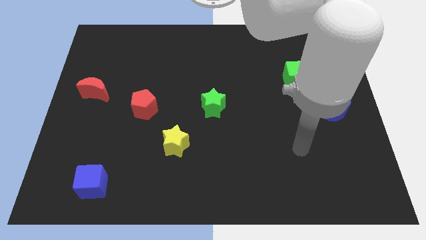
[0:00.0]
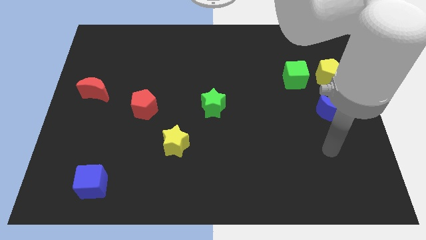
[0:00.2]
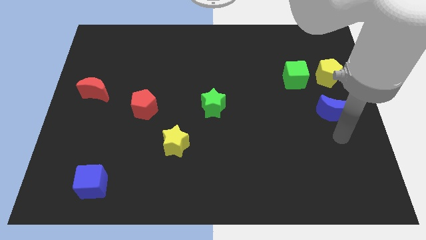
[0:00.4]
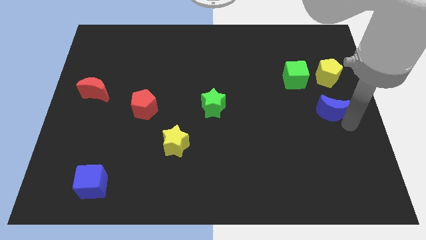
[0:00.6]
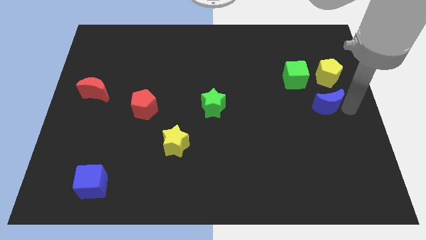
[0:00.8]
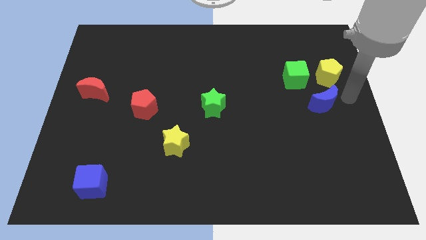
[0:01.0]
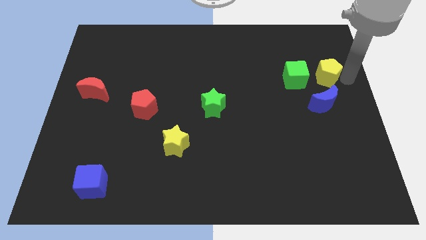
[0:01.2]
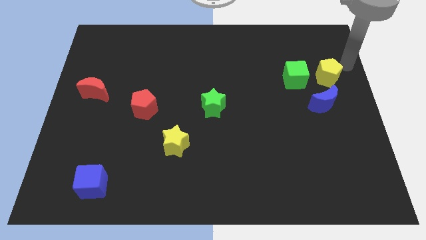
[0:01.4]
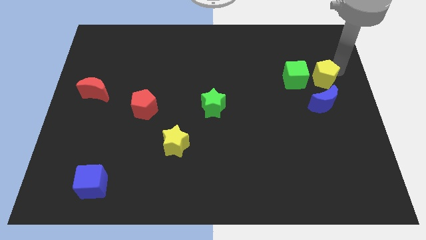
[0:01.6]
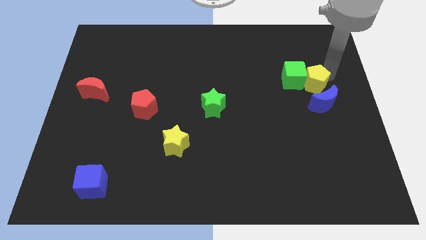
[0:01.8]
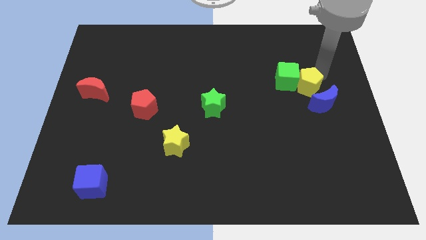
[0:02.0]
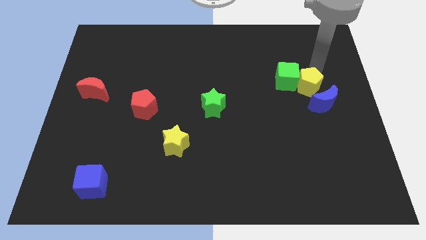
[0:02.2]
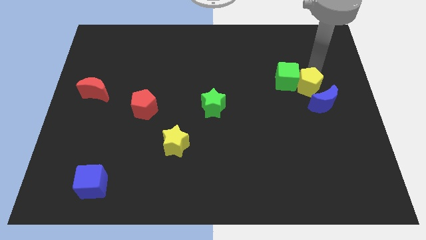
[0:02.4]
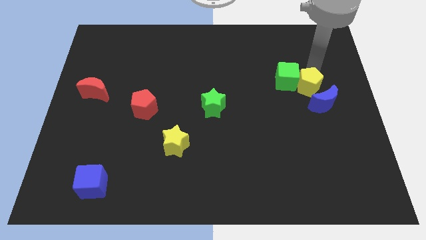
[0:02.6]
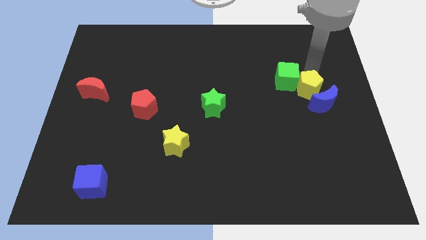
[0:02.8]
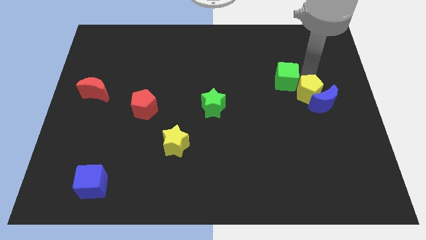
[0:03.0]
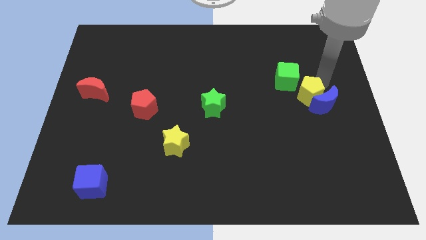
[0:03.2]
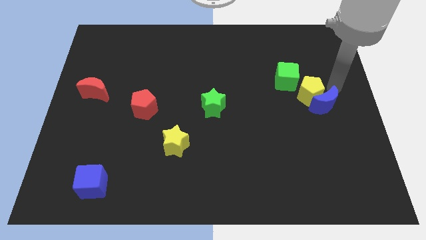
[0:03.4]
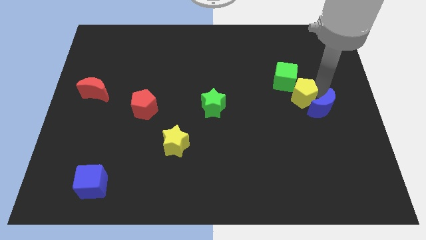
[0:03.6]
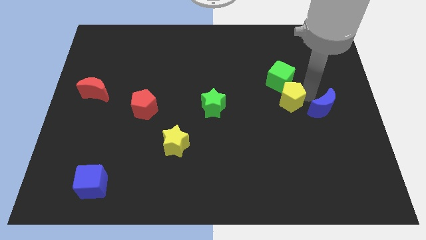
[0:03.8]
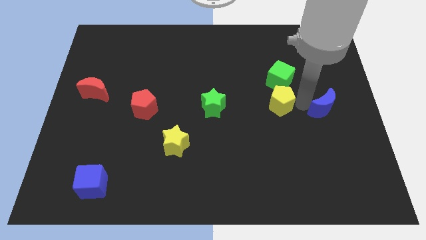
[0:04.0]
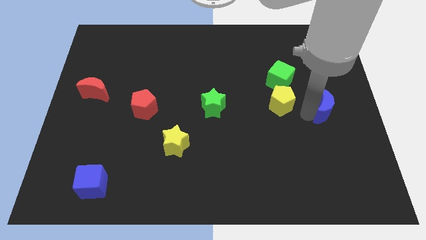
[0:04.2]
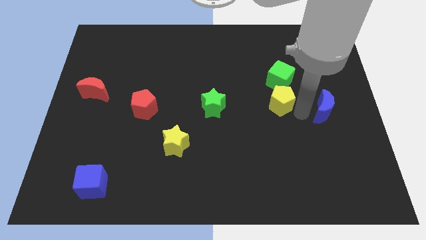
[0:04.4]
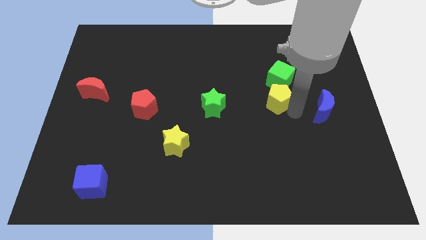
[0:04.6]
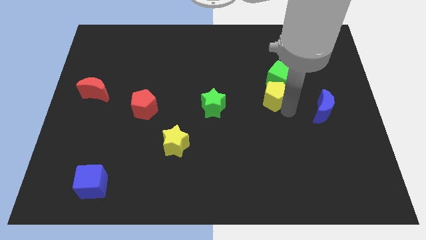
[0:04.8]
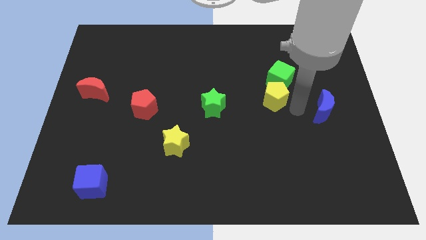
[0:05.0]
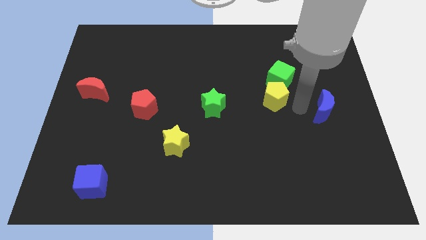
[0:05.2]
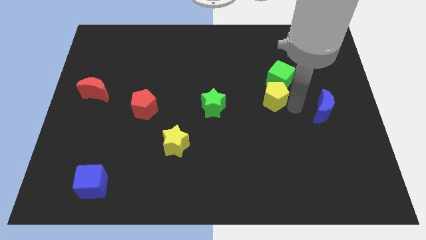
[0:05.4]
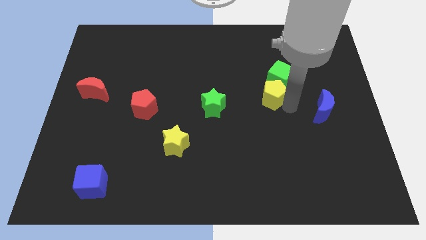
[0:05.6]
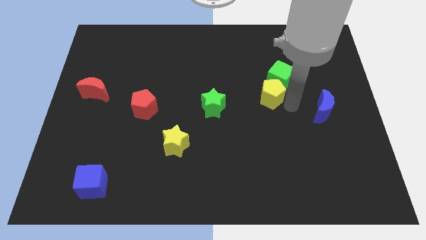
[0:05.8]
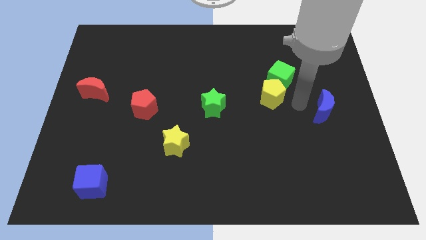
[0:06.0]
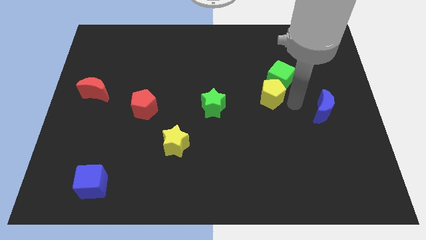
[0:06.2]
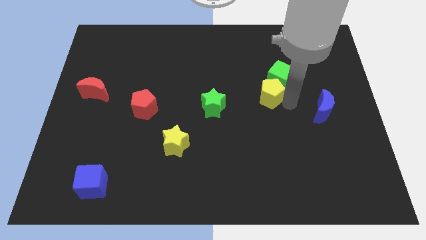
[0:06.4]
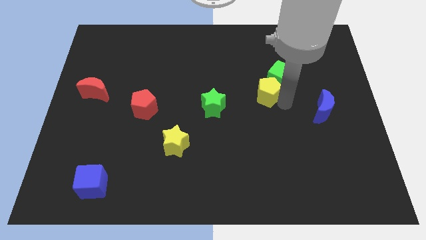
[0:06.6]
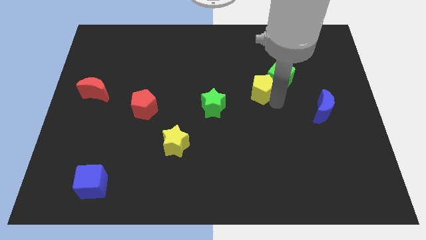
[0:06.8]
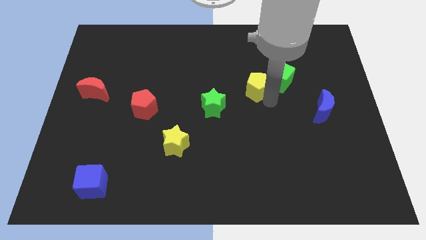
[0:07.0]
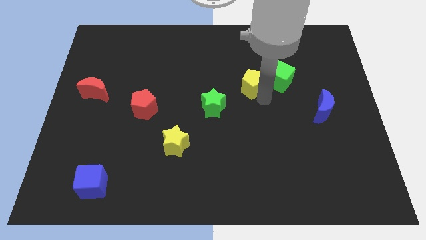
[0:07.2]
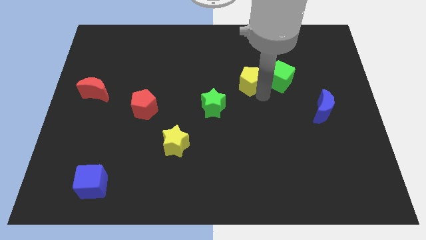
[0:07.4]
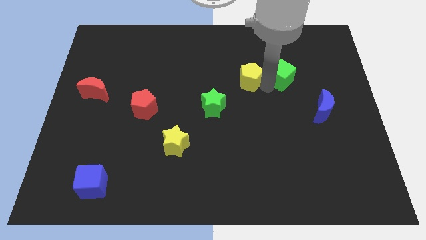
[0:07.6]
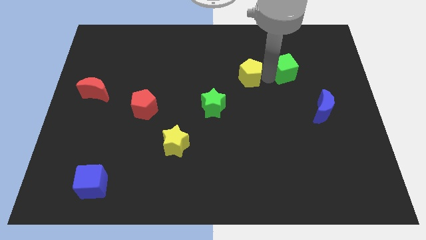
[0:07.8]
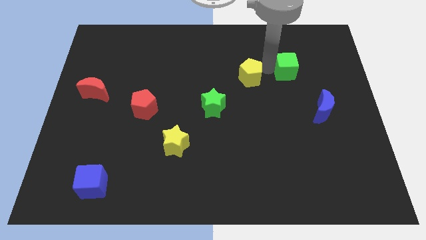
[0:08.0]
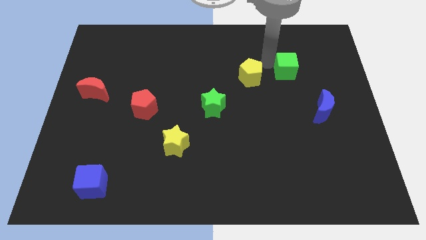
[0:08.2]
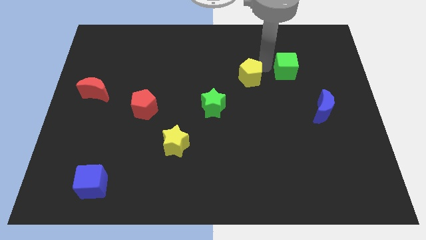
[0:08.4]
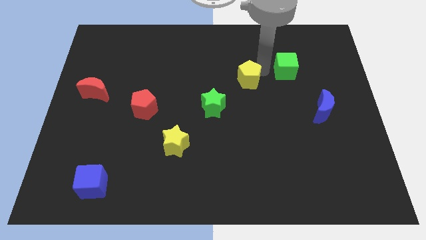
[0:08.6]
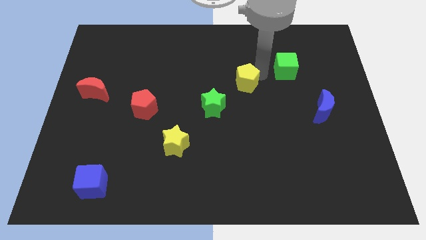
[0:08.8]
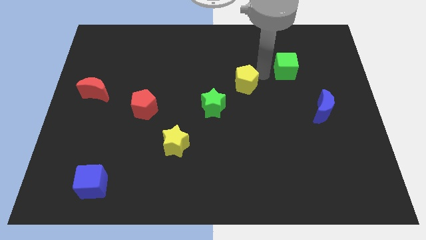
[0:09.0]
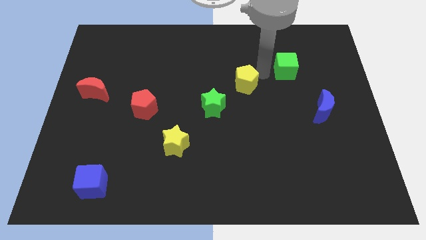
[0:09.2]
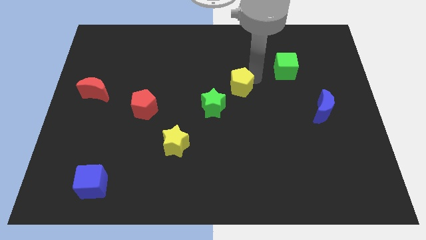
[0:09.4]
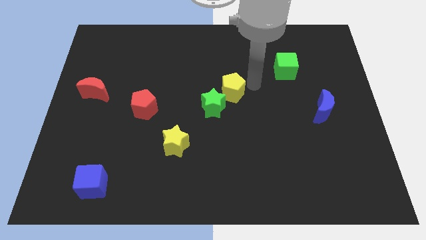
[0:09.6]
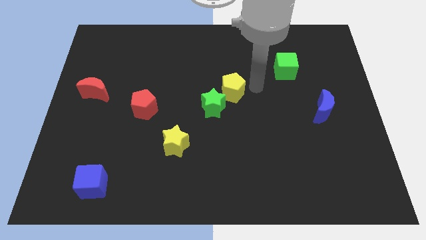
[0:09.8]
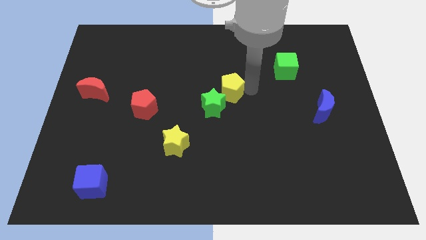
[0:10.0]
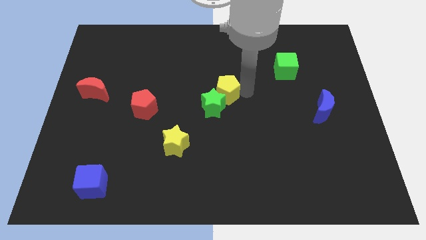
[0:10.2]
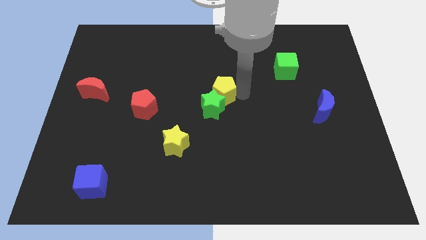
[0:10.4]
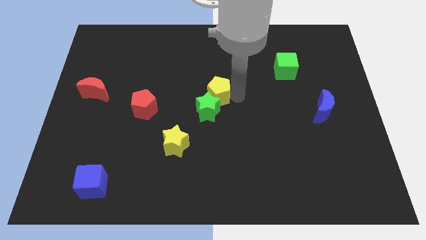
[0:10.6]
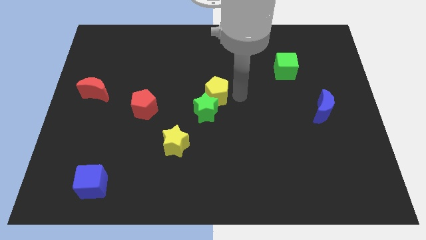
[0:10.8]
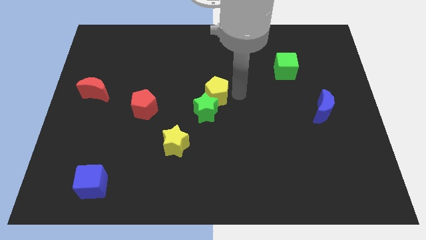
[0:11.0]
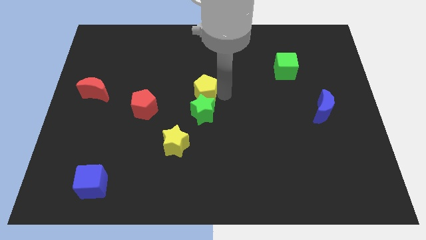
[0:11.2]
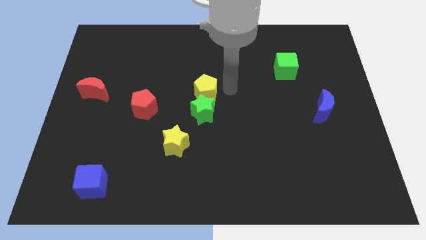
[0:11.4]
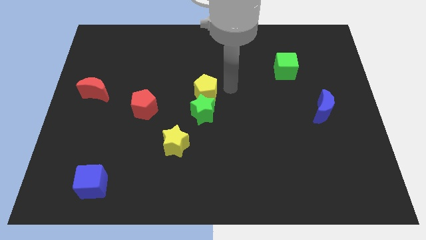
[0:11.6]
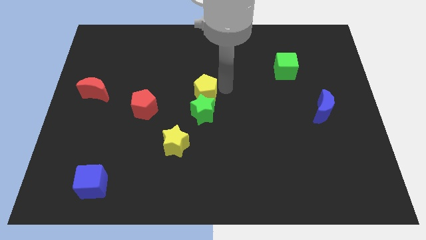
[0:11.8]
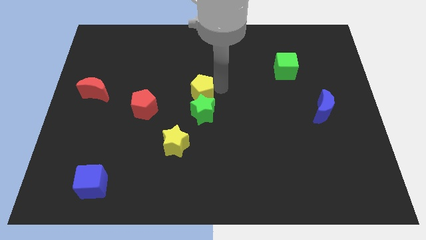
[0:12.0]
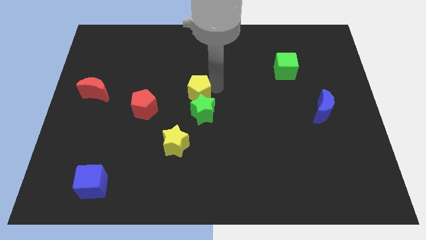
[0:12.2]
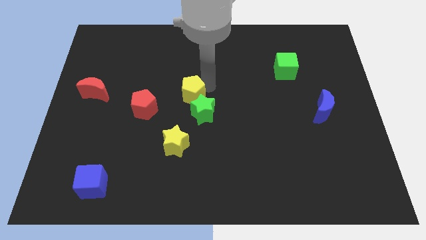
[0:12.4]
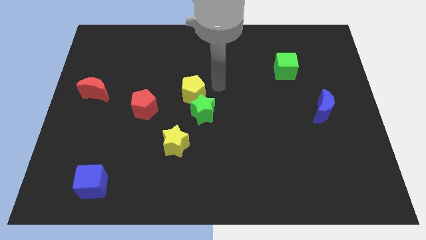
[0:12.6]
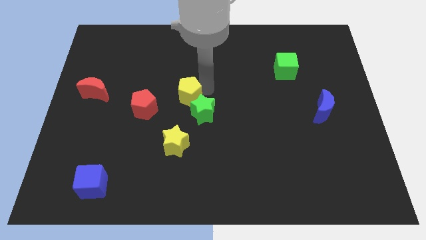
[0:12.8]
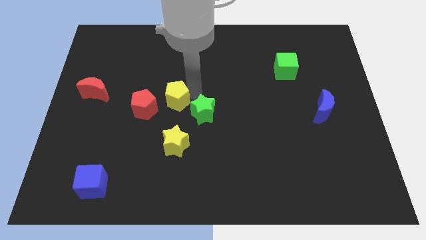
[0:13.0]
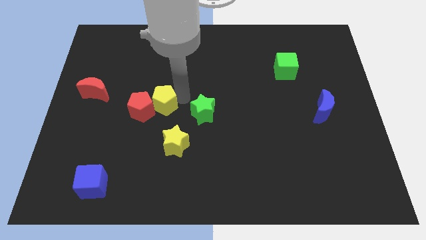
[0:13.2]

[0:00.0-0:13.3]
slide the yellow pentagon to the red pentagon
